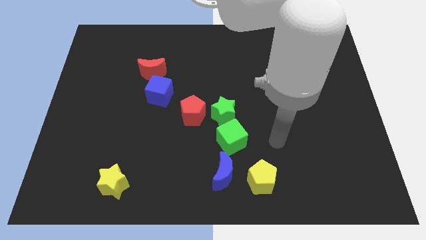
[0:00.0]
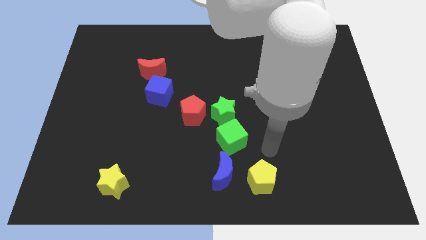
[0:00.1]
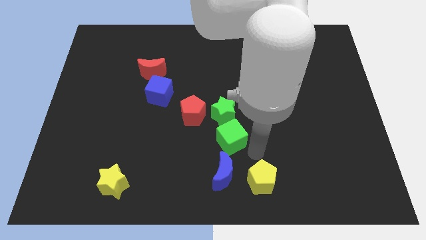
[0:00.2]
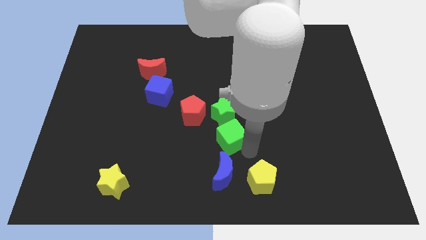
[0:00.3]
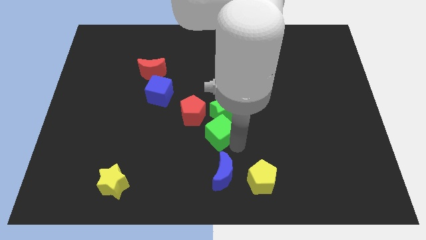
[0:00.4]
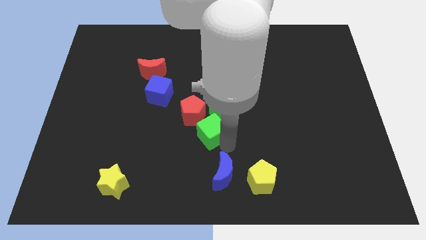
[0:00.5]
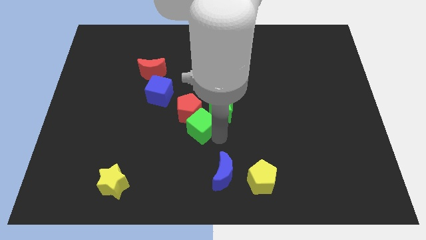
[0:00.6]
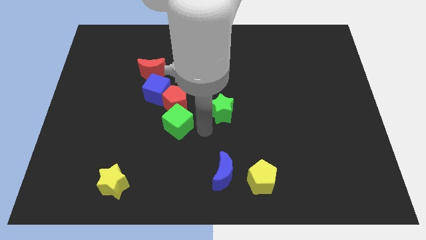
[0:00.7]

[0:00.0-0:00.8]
pull the green star apart from the green cube and red pentagon

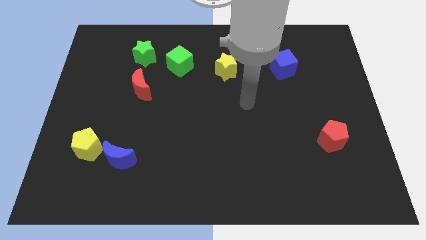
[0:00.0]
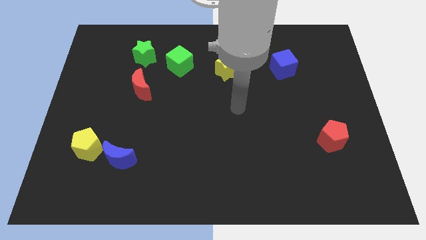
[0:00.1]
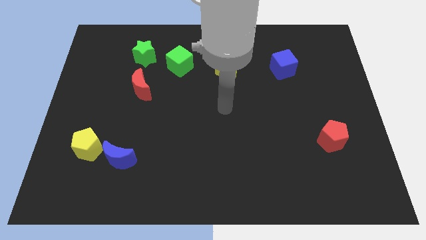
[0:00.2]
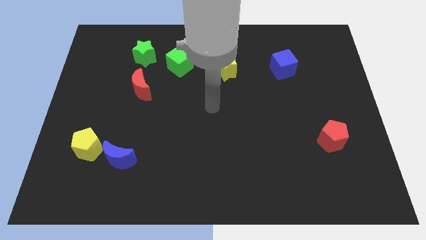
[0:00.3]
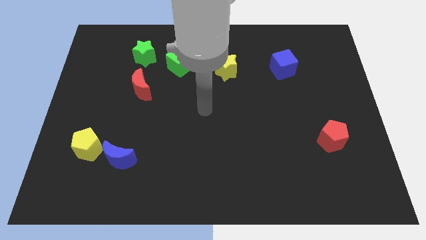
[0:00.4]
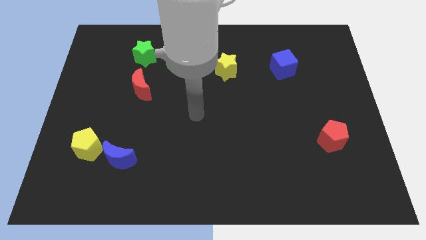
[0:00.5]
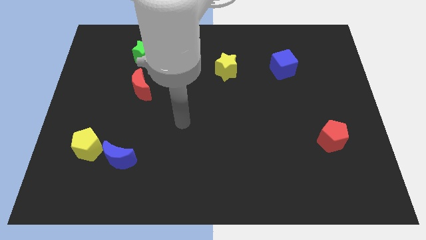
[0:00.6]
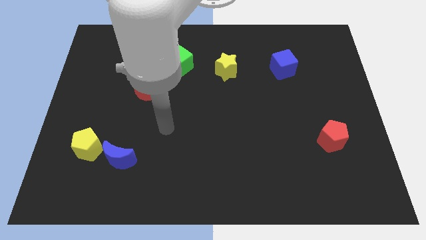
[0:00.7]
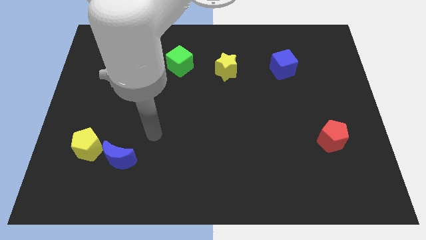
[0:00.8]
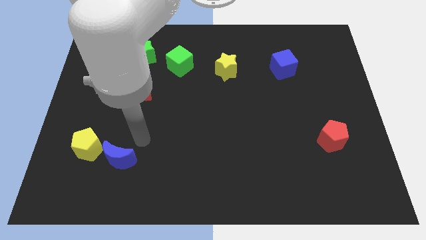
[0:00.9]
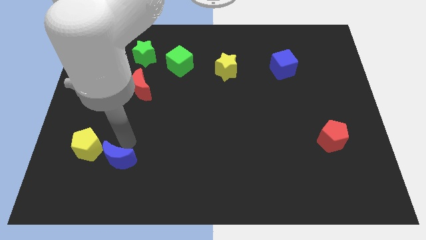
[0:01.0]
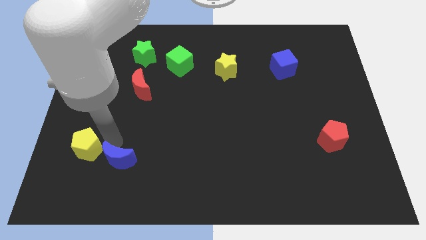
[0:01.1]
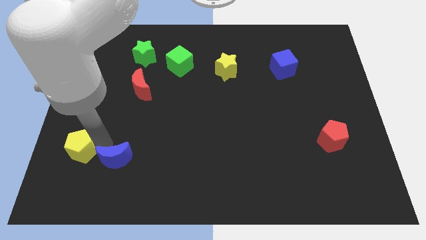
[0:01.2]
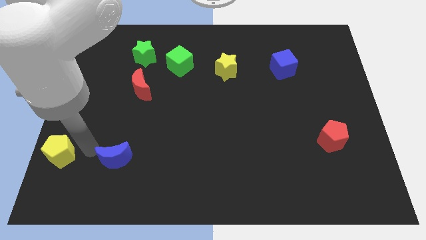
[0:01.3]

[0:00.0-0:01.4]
separate the blue moon from the yellow pentagon

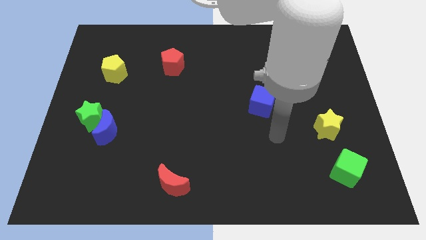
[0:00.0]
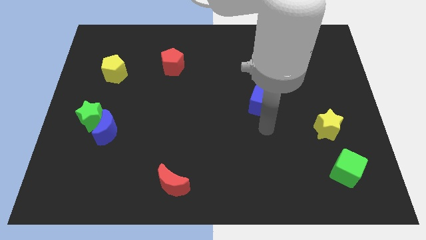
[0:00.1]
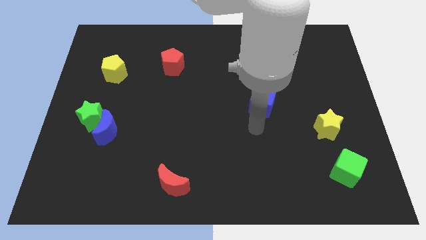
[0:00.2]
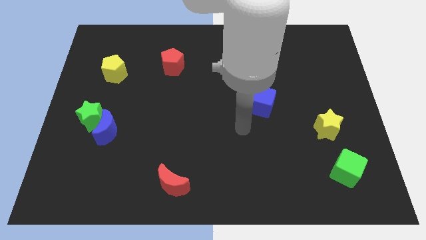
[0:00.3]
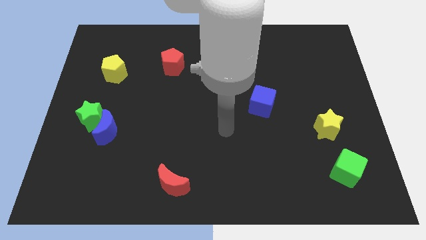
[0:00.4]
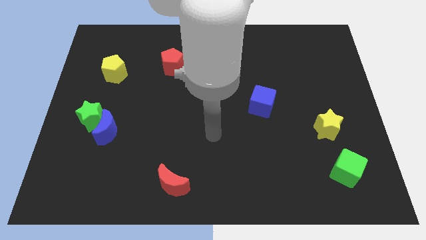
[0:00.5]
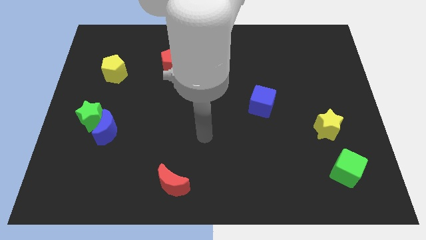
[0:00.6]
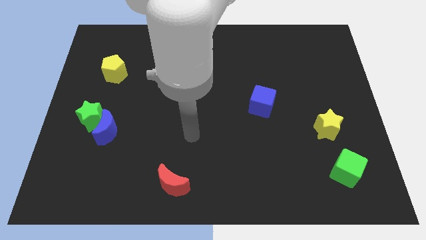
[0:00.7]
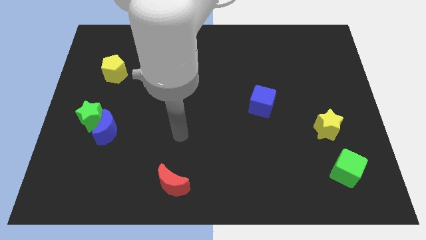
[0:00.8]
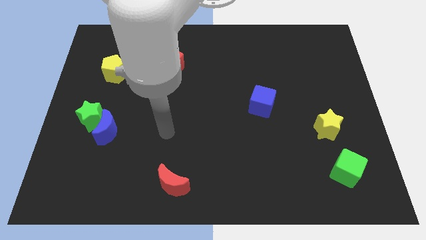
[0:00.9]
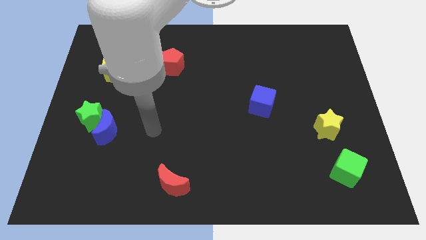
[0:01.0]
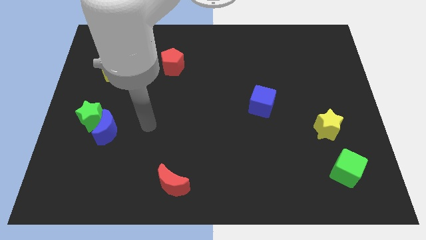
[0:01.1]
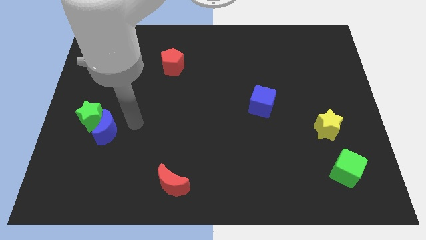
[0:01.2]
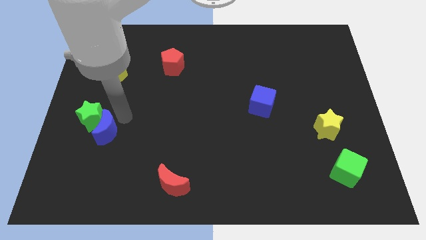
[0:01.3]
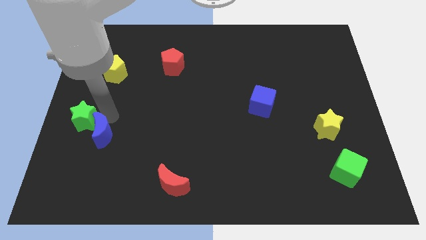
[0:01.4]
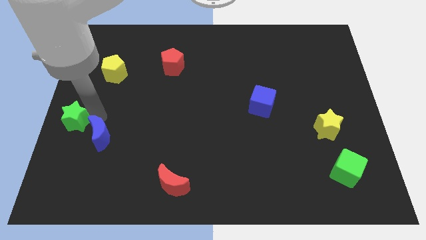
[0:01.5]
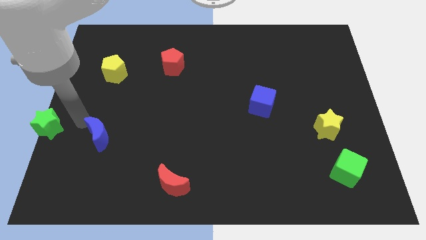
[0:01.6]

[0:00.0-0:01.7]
pull the blue moon apart from the green star

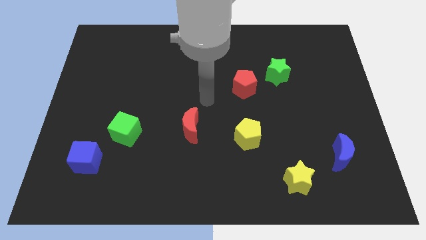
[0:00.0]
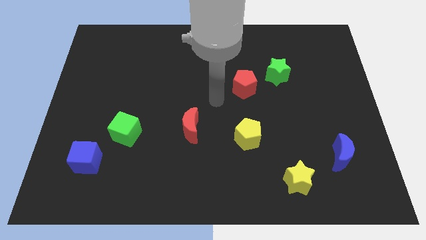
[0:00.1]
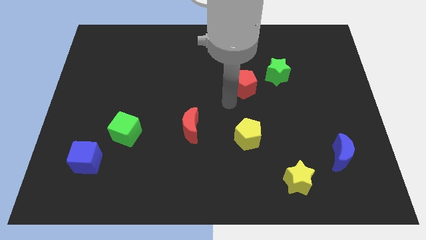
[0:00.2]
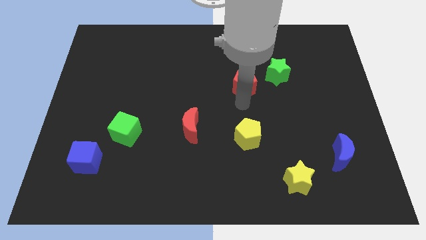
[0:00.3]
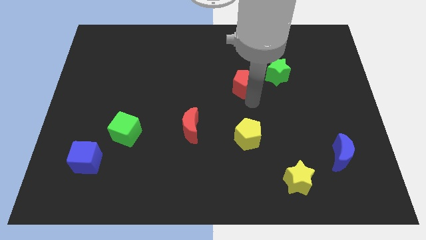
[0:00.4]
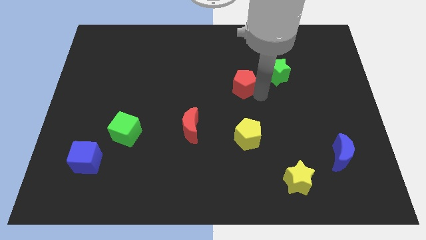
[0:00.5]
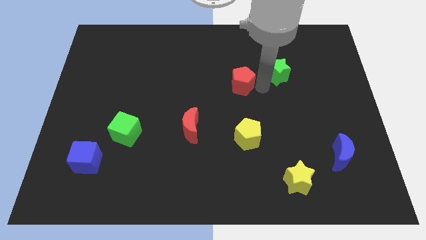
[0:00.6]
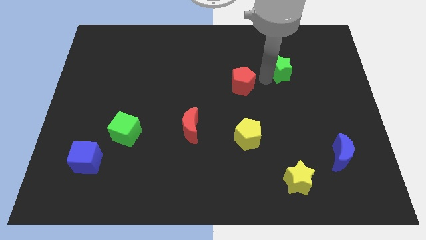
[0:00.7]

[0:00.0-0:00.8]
separate the red pentagon from the green star

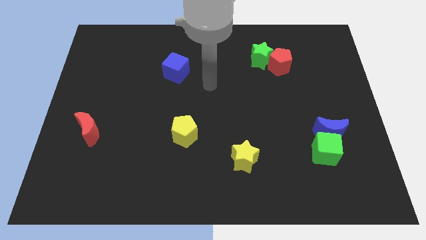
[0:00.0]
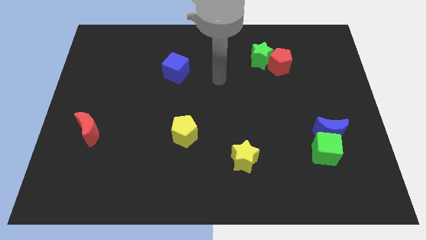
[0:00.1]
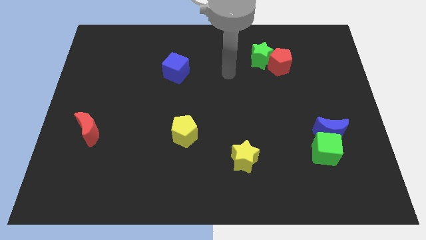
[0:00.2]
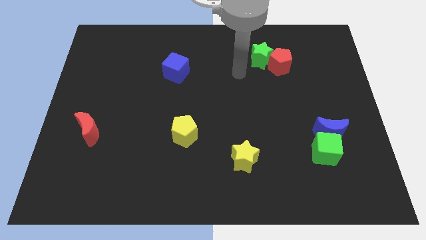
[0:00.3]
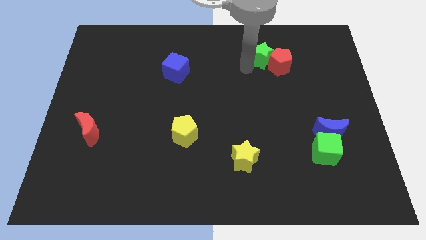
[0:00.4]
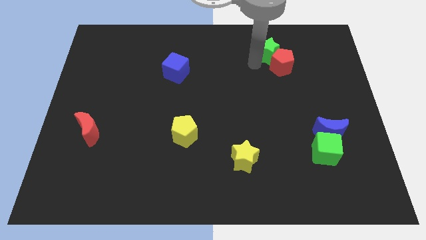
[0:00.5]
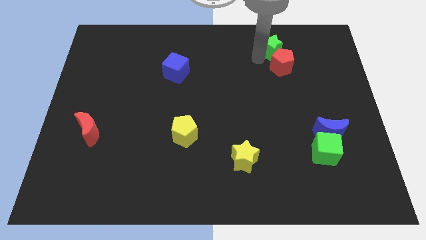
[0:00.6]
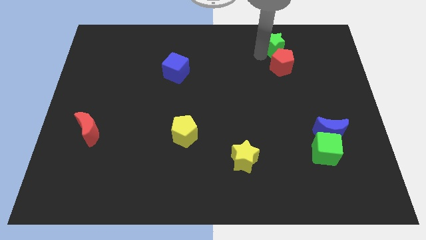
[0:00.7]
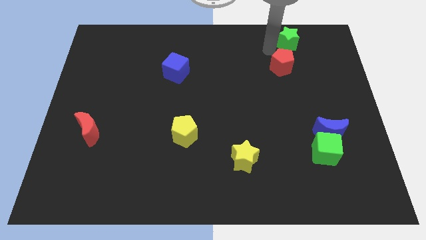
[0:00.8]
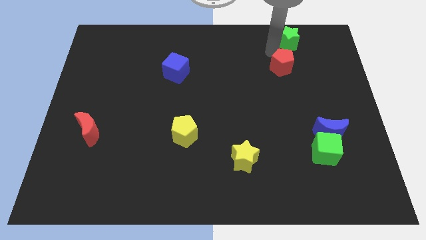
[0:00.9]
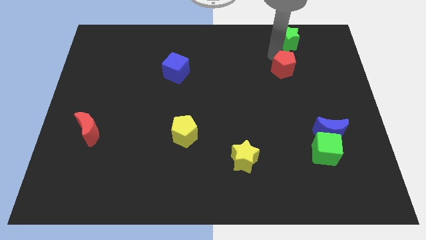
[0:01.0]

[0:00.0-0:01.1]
pull the red pentagon apart from the green star

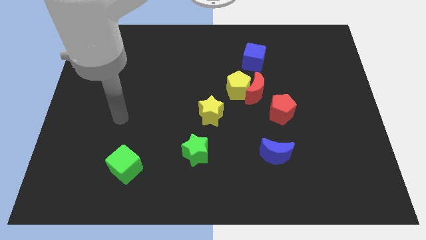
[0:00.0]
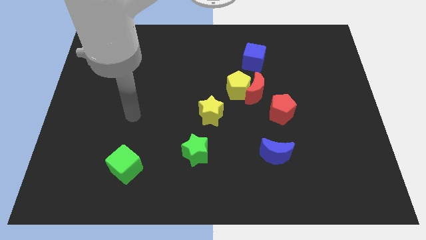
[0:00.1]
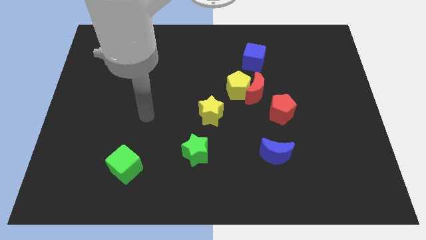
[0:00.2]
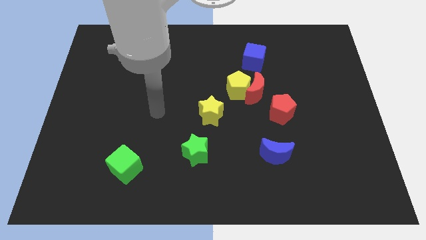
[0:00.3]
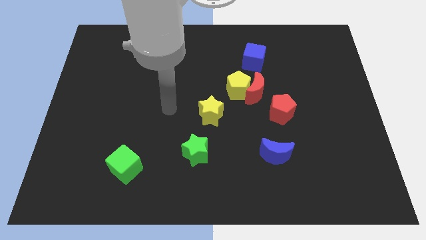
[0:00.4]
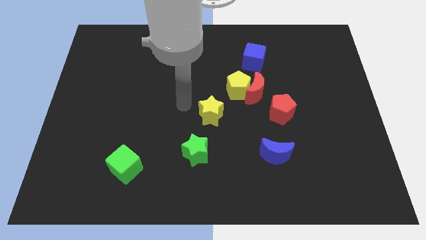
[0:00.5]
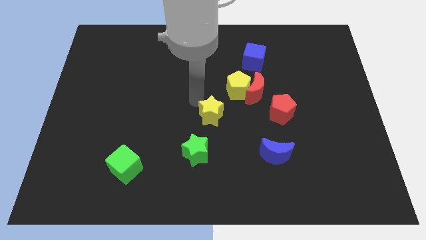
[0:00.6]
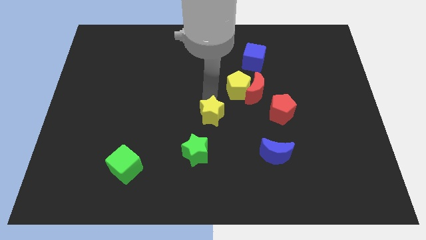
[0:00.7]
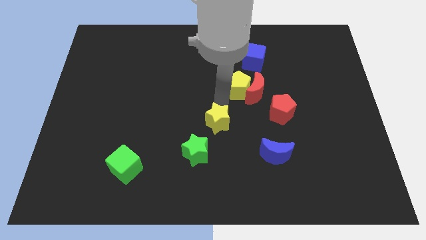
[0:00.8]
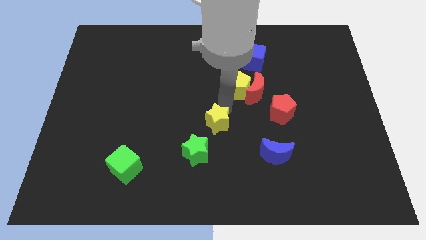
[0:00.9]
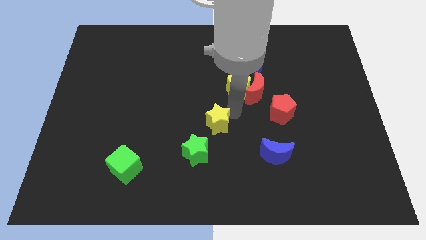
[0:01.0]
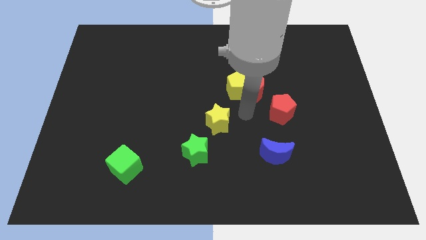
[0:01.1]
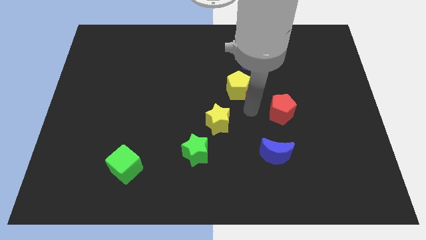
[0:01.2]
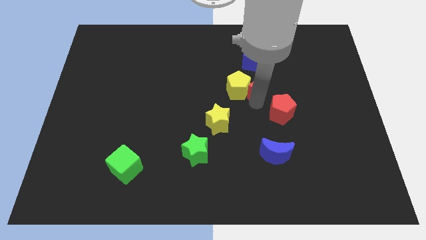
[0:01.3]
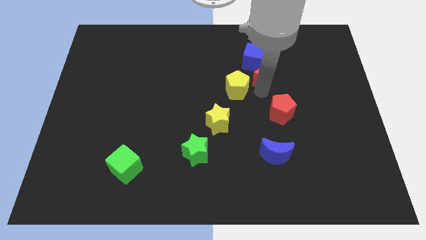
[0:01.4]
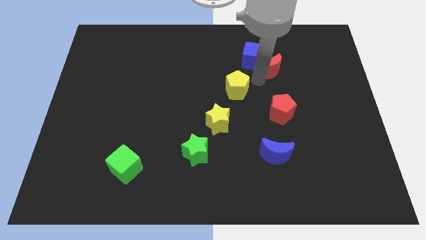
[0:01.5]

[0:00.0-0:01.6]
pull the yellow pentagon apart from the red moon

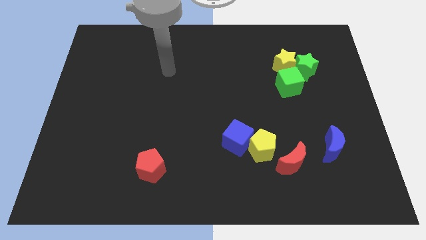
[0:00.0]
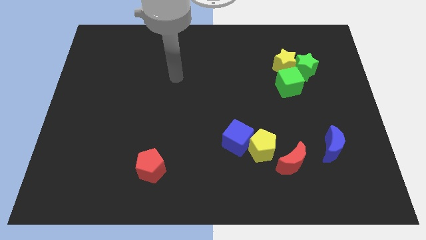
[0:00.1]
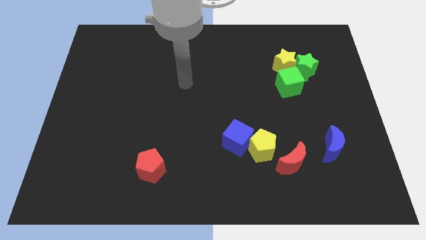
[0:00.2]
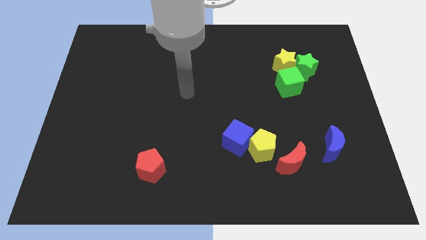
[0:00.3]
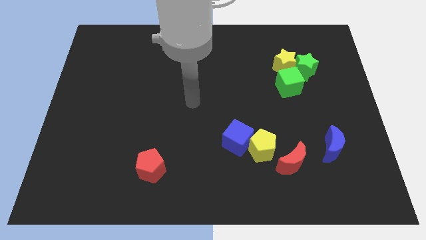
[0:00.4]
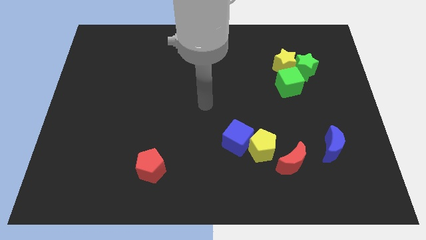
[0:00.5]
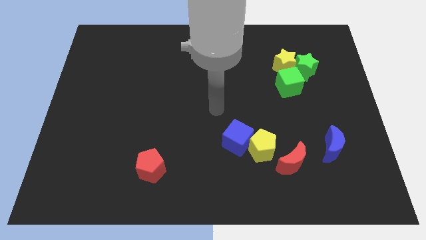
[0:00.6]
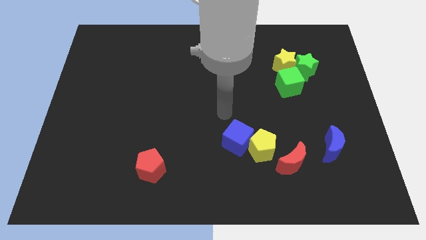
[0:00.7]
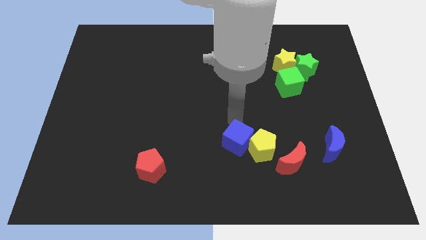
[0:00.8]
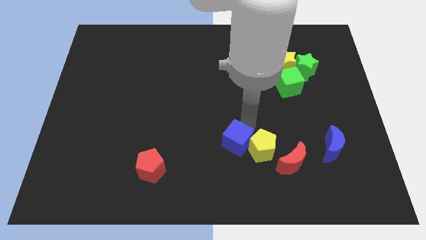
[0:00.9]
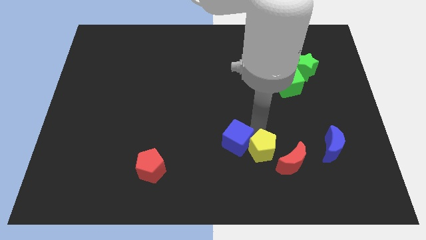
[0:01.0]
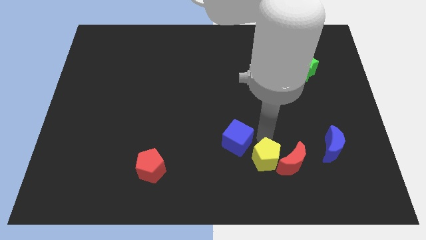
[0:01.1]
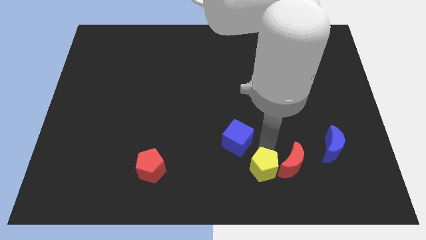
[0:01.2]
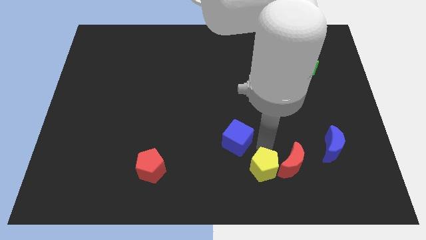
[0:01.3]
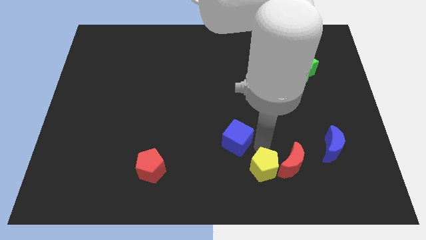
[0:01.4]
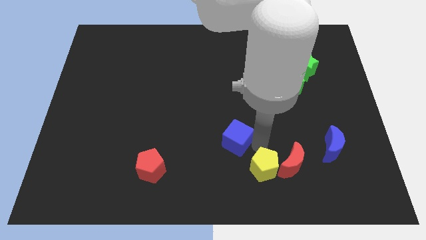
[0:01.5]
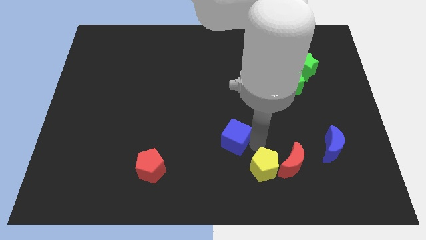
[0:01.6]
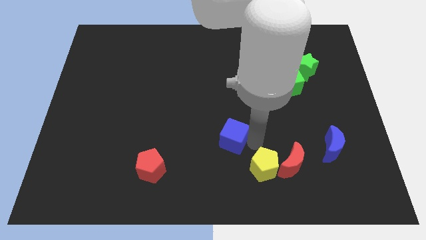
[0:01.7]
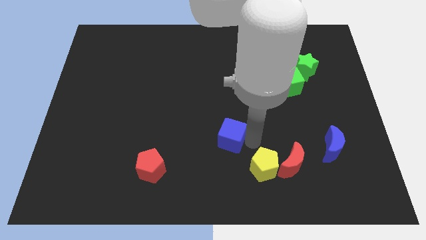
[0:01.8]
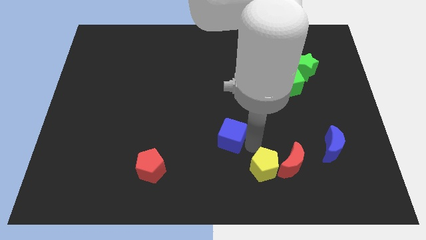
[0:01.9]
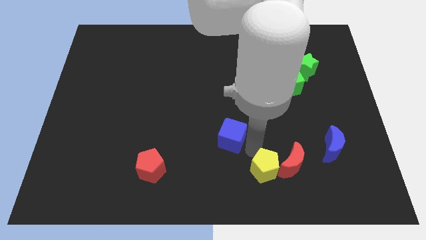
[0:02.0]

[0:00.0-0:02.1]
separate the blue cube from the yellow pentagon
